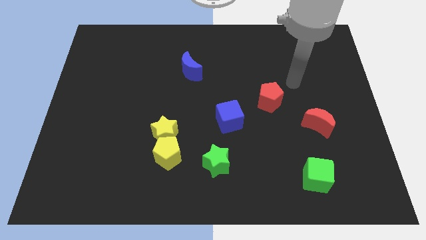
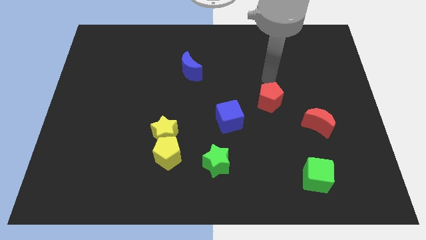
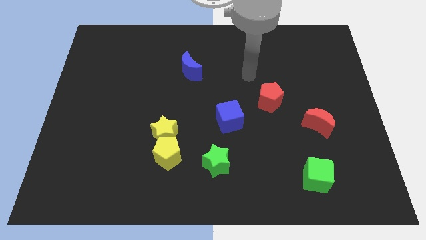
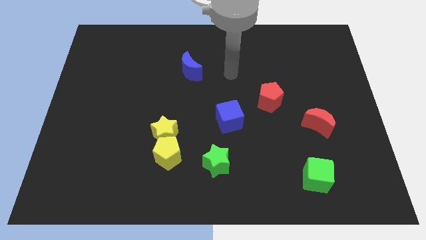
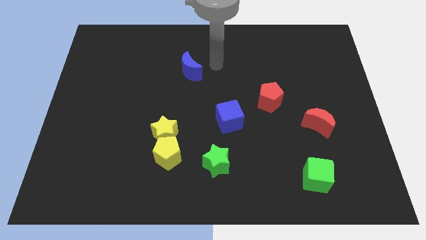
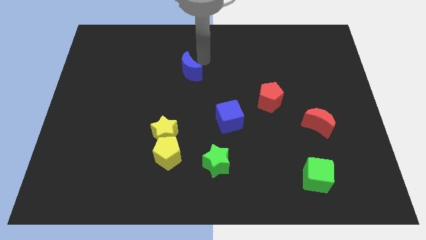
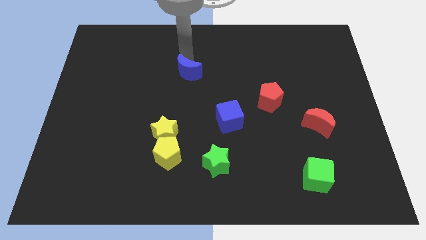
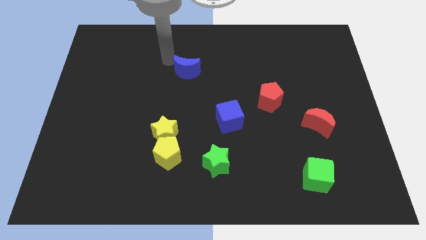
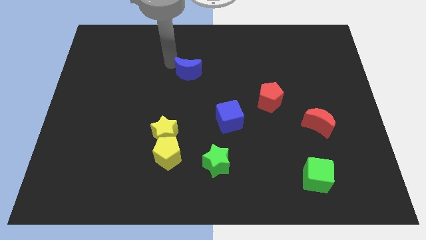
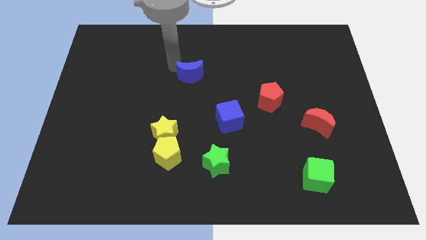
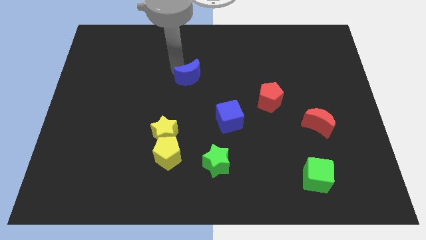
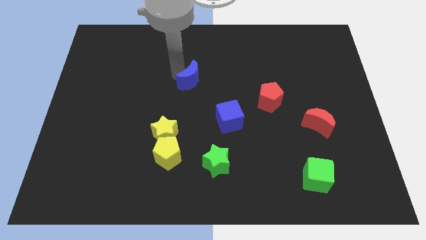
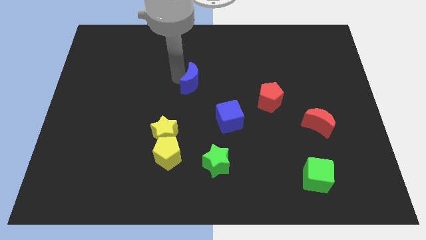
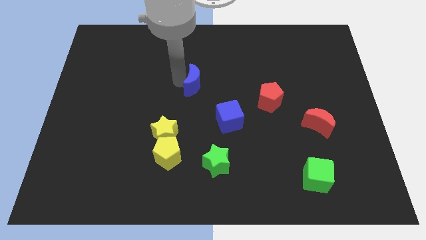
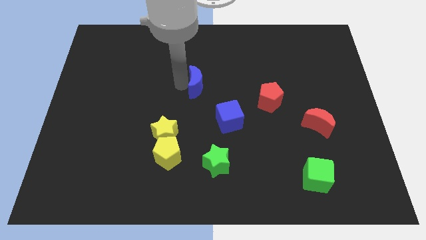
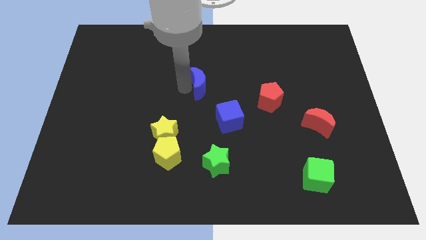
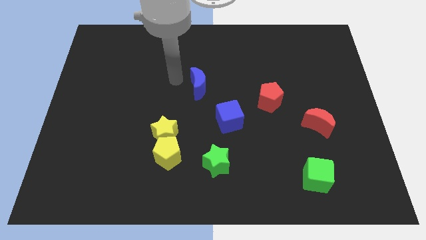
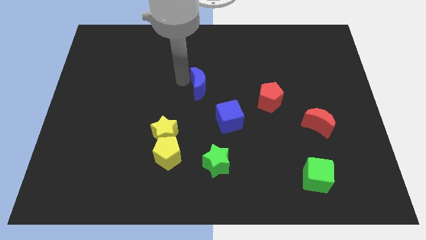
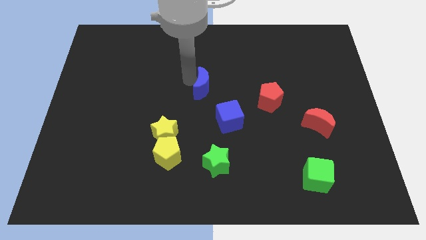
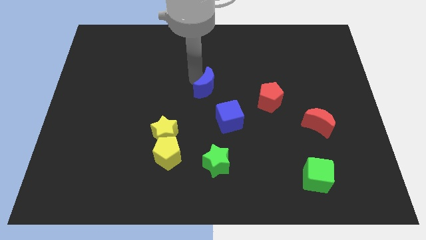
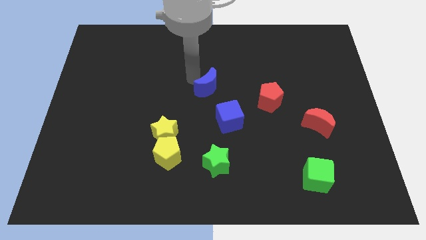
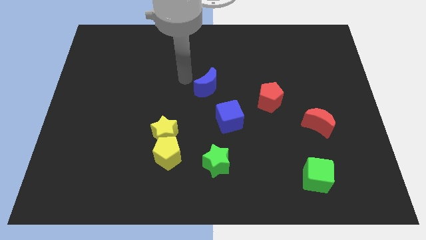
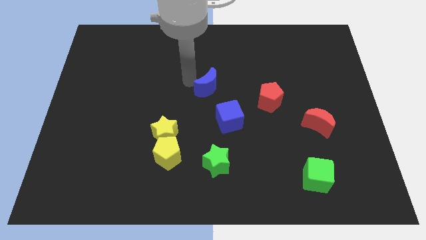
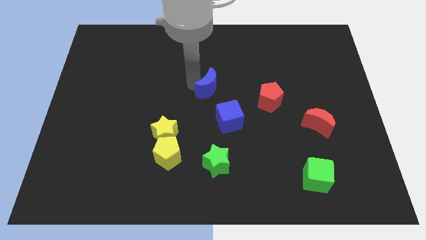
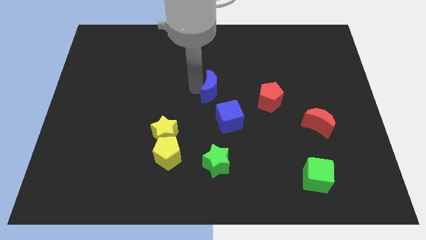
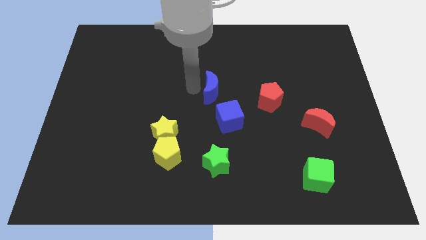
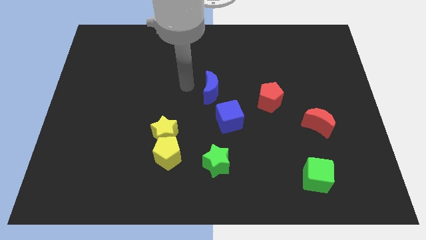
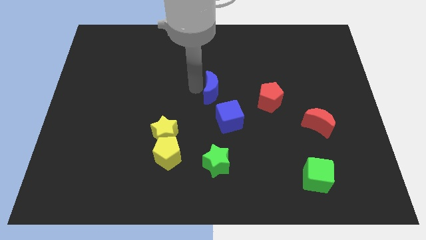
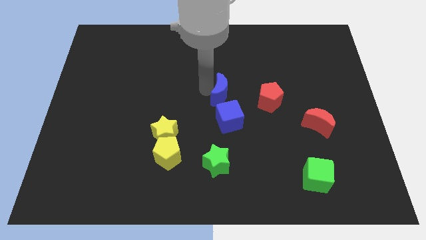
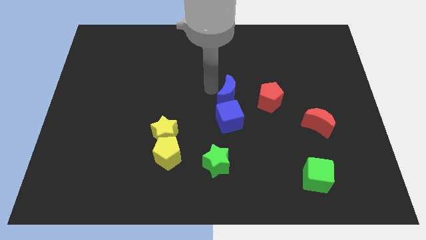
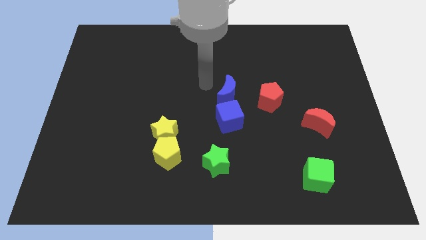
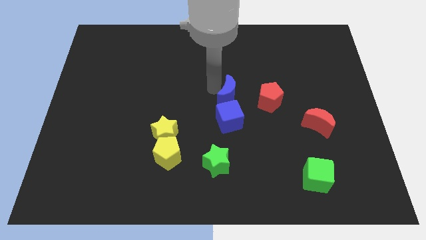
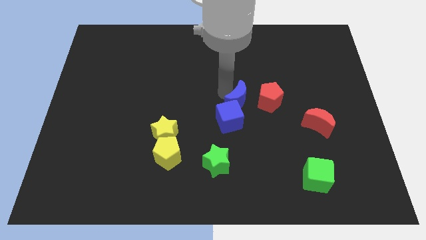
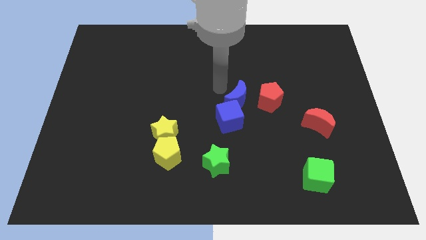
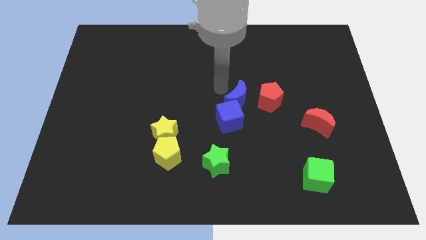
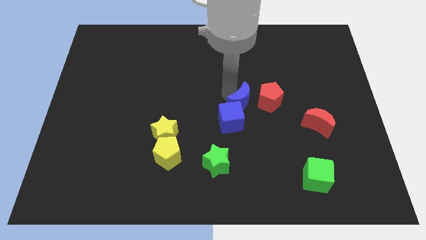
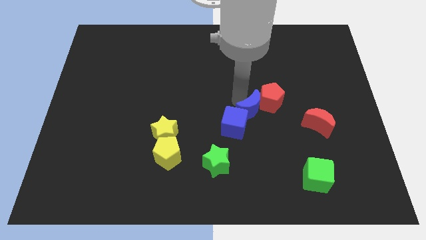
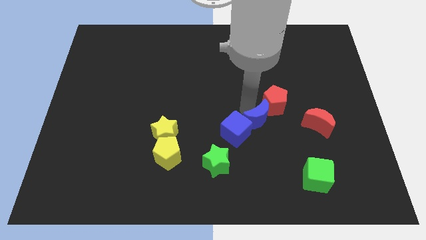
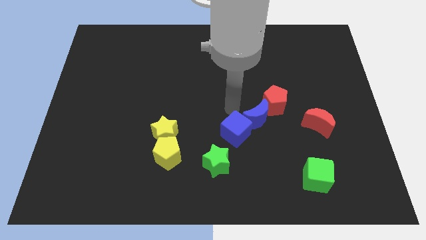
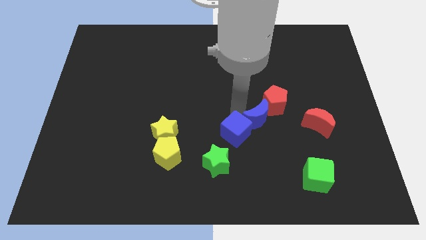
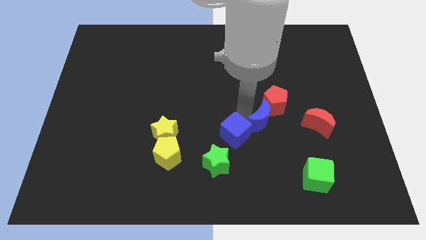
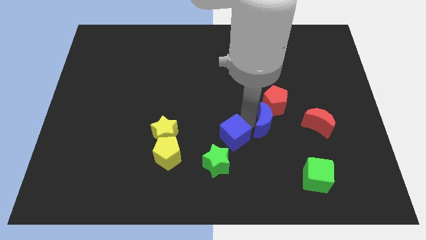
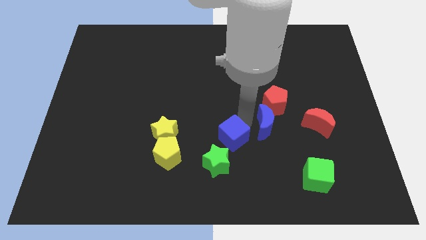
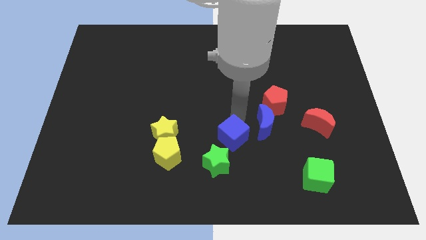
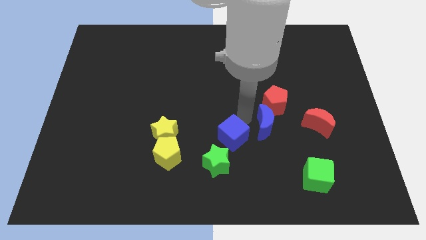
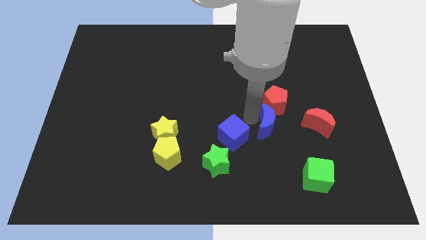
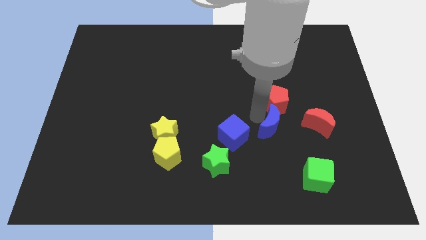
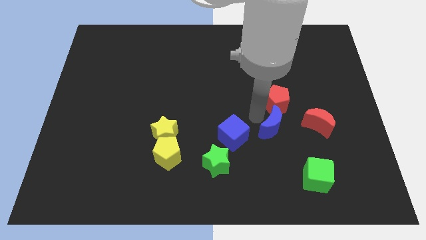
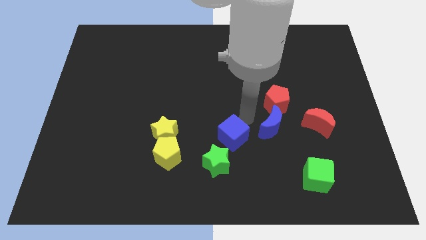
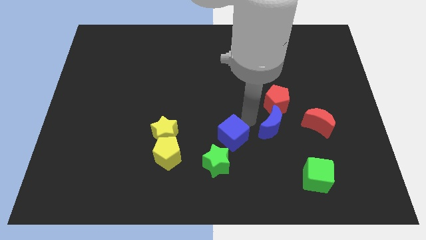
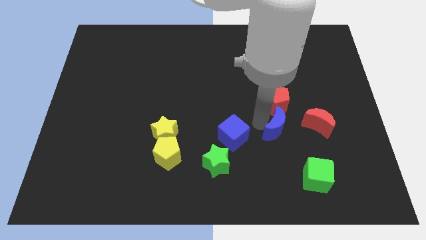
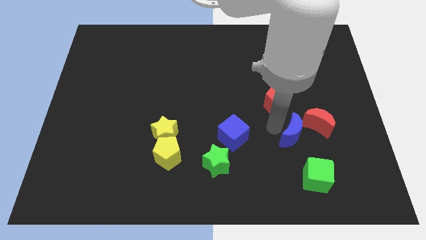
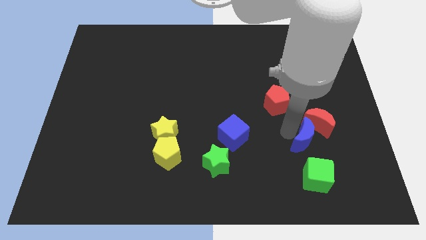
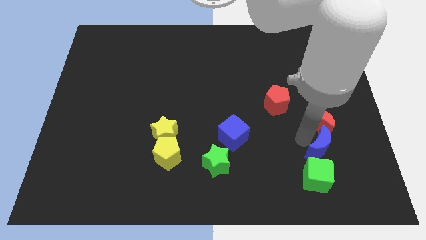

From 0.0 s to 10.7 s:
slide the blue moon diagonally up and to the right of the green cube

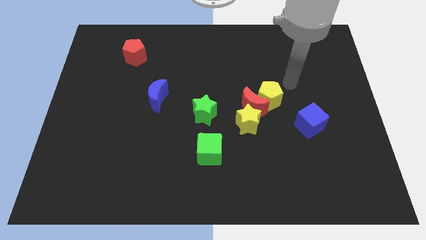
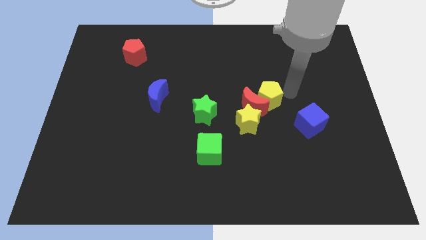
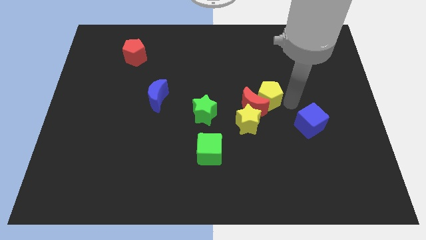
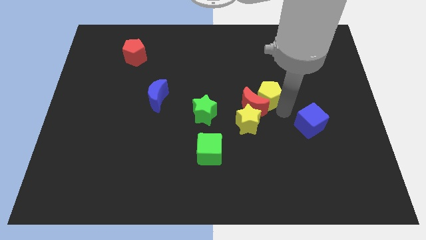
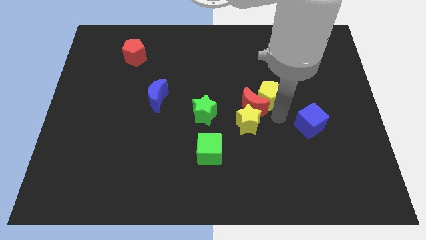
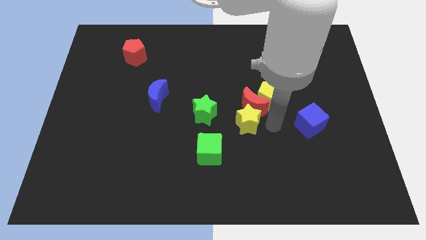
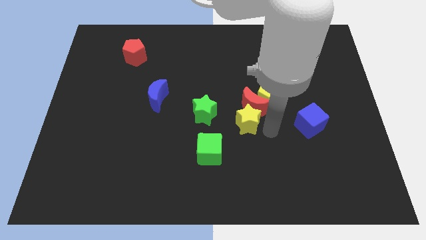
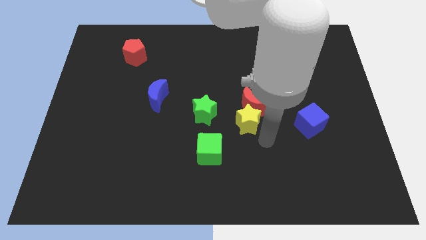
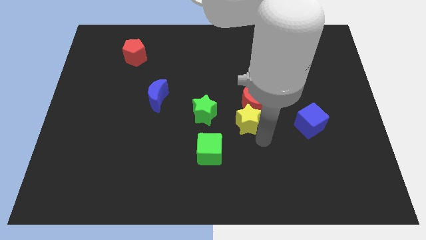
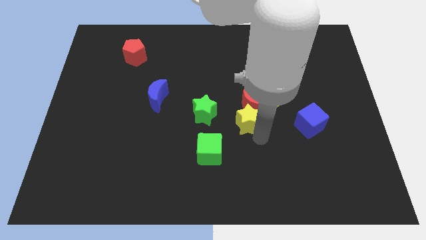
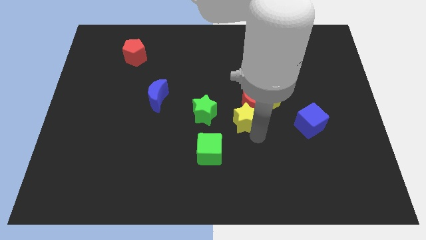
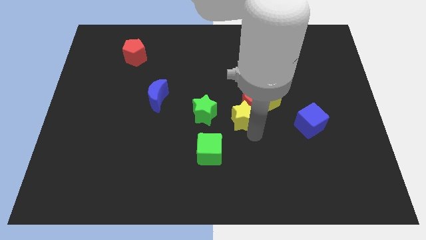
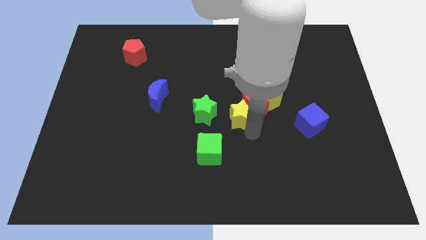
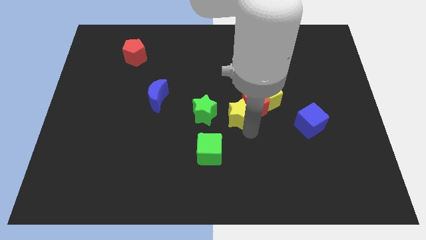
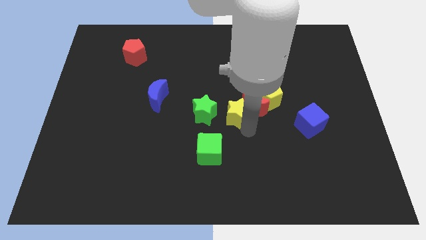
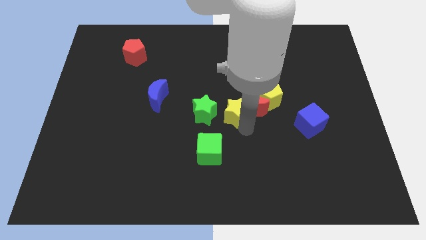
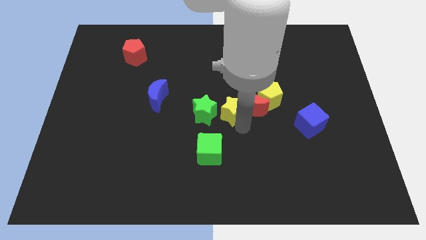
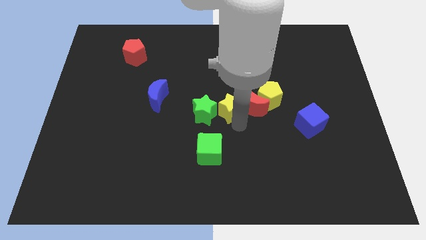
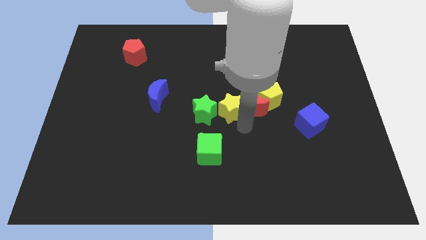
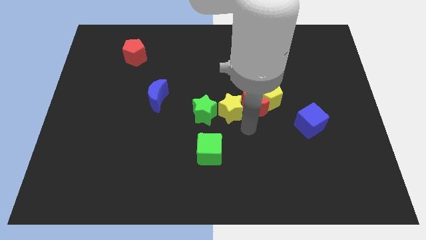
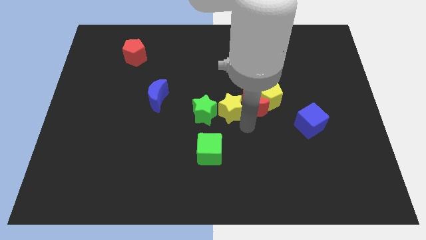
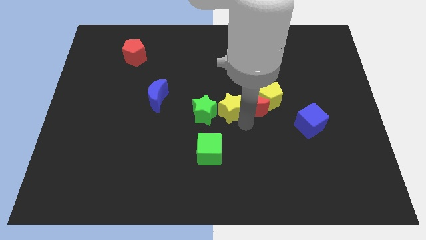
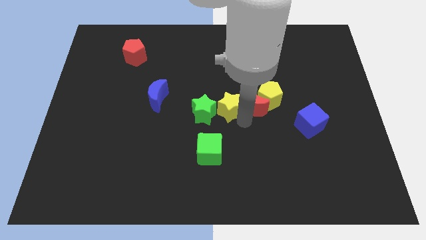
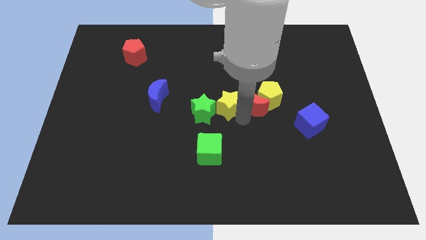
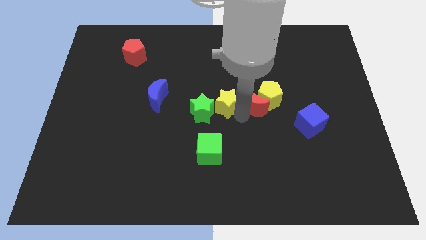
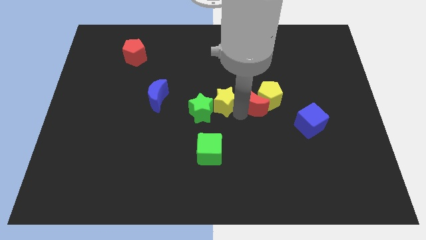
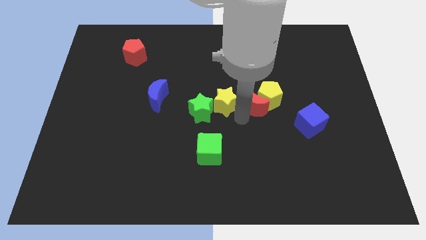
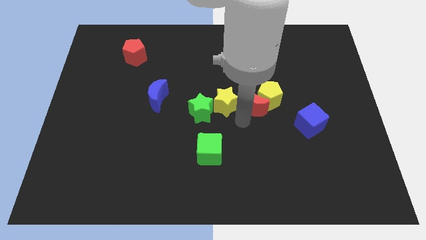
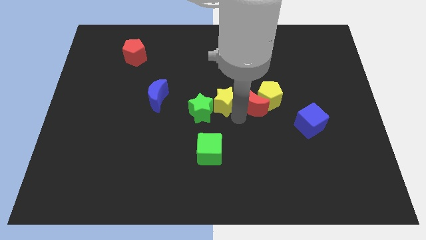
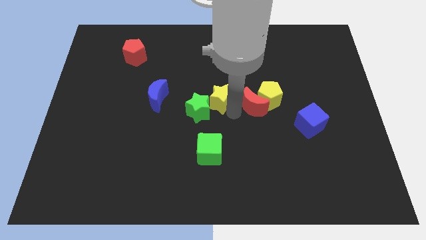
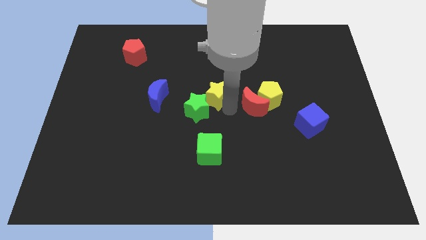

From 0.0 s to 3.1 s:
push the yellow star to the top of the green star
